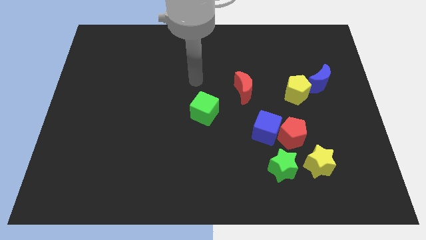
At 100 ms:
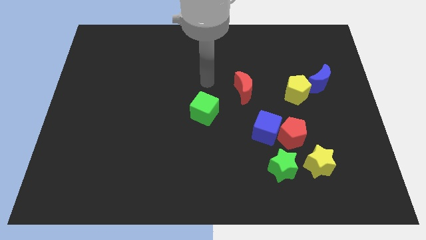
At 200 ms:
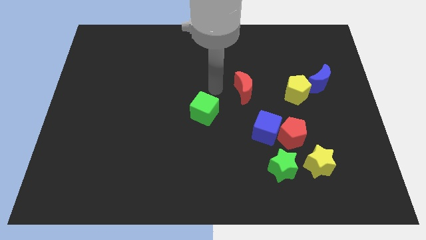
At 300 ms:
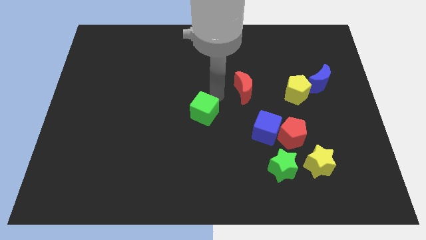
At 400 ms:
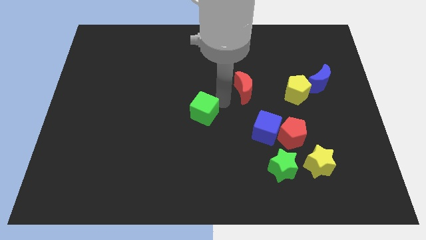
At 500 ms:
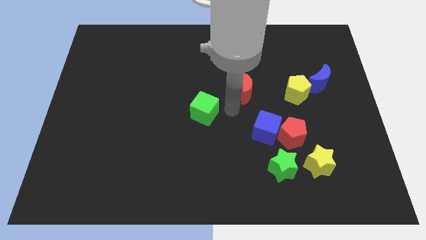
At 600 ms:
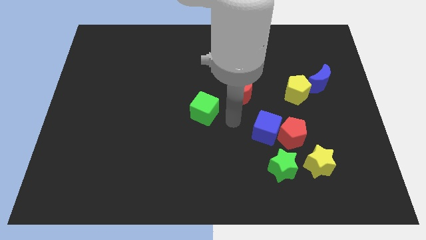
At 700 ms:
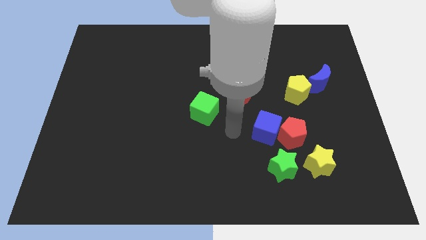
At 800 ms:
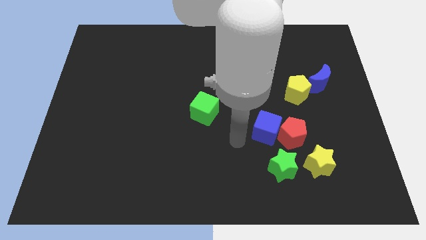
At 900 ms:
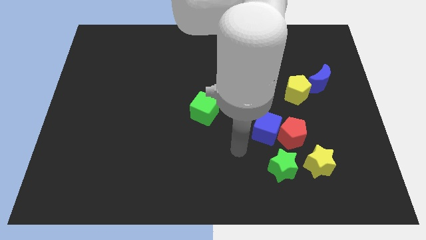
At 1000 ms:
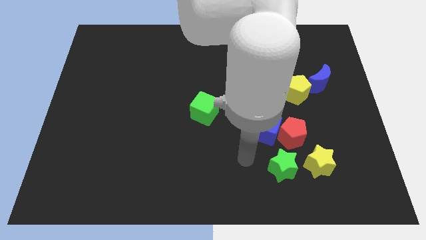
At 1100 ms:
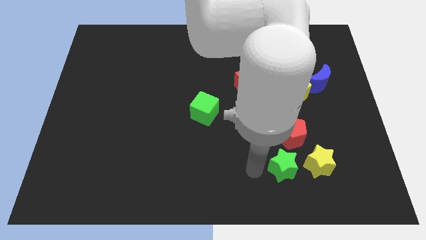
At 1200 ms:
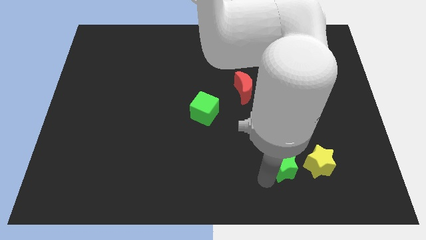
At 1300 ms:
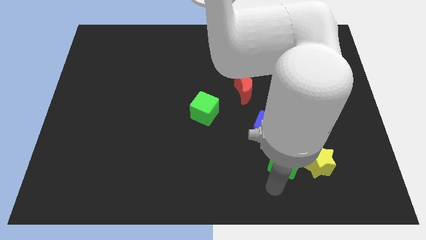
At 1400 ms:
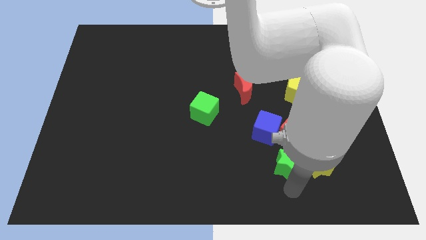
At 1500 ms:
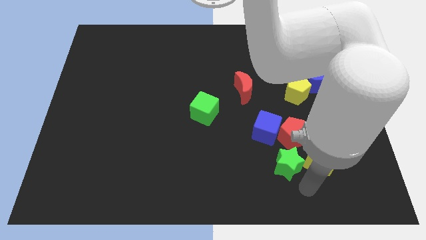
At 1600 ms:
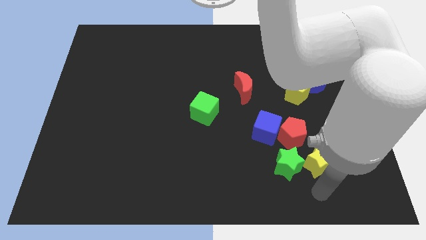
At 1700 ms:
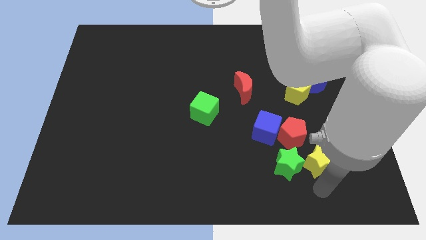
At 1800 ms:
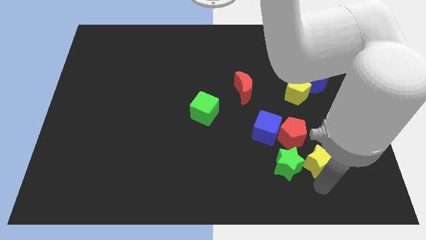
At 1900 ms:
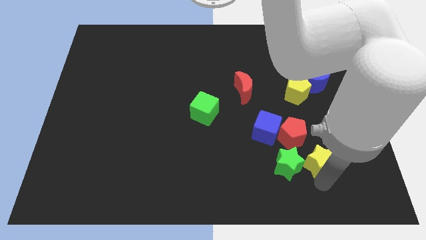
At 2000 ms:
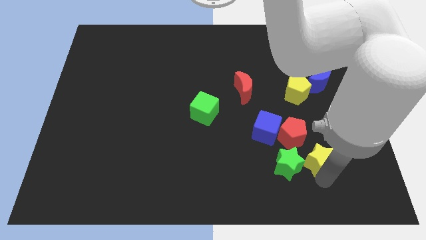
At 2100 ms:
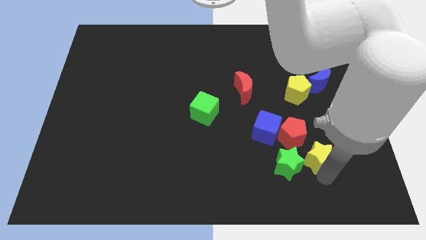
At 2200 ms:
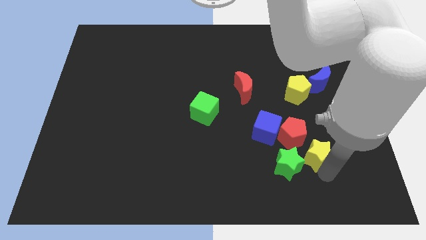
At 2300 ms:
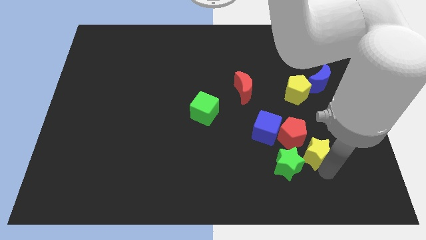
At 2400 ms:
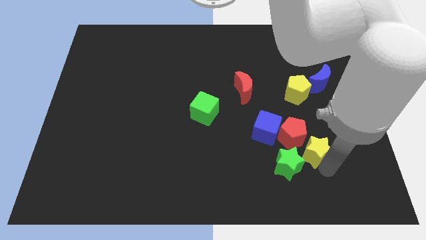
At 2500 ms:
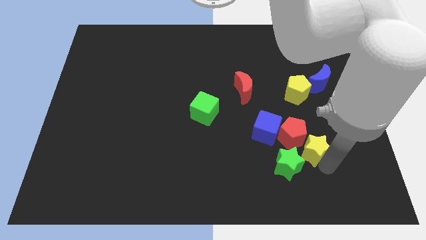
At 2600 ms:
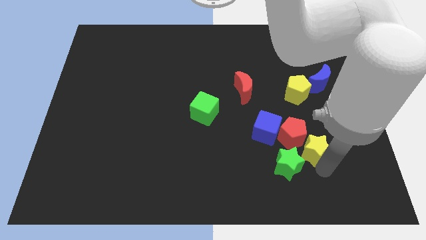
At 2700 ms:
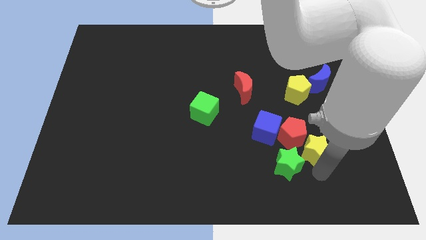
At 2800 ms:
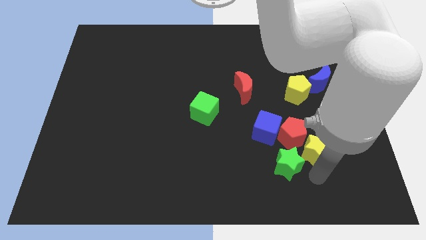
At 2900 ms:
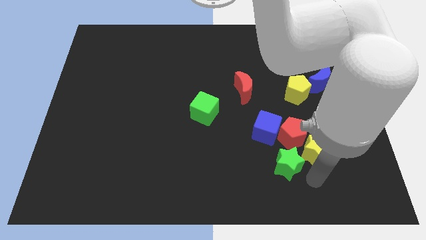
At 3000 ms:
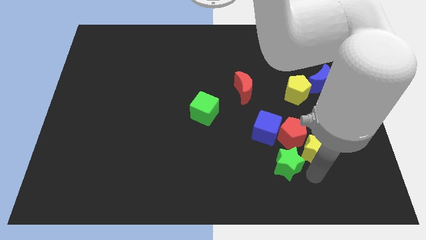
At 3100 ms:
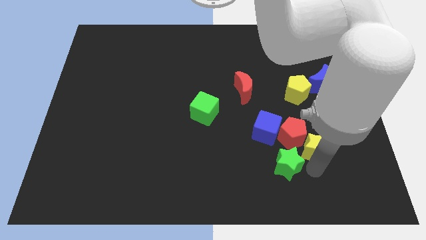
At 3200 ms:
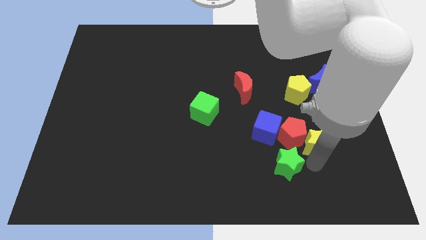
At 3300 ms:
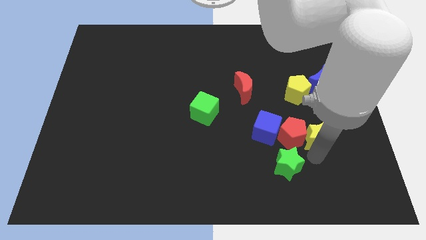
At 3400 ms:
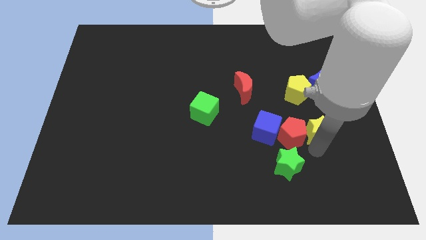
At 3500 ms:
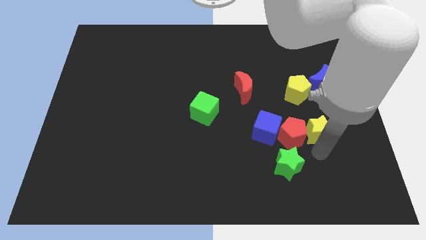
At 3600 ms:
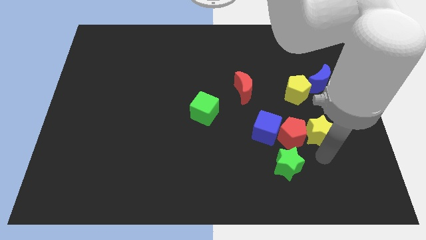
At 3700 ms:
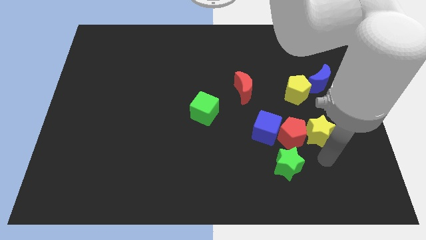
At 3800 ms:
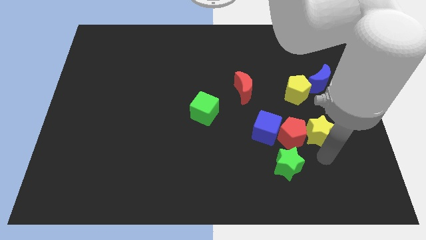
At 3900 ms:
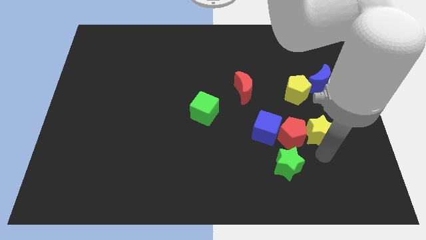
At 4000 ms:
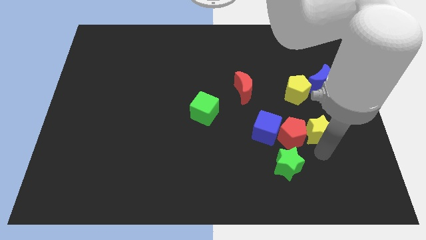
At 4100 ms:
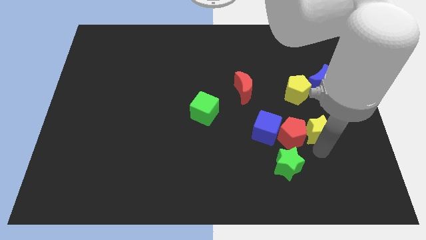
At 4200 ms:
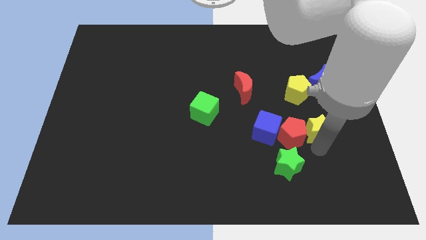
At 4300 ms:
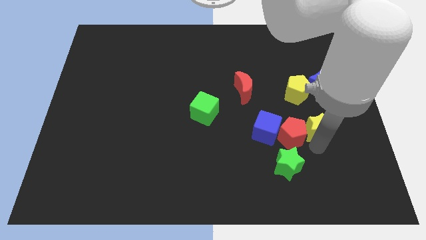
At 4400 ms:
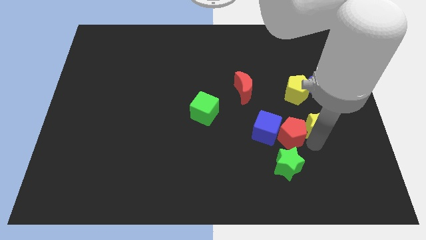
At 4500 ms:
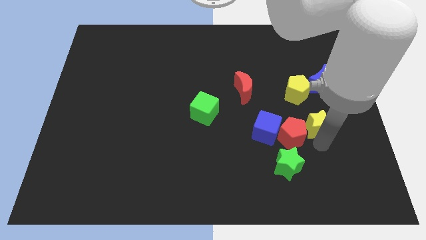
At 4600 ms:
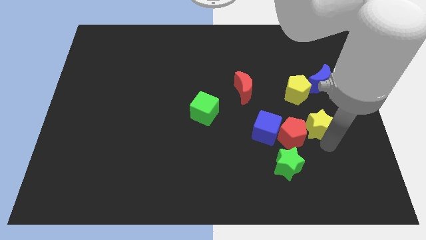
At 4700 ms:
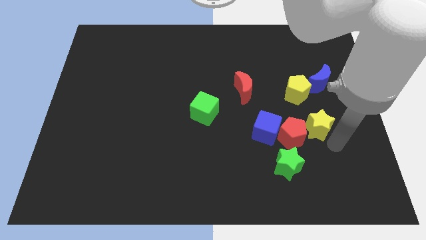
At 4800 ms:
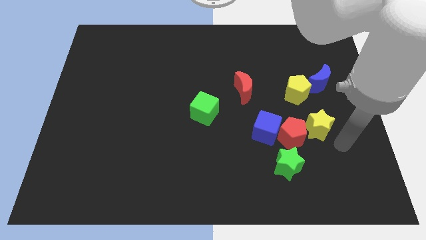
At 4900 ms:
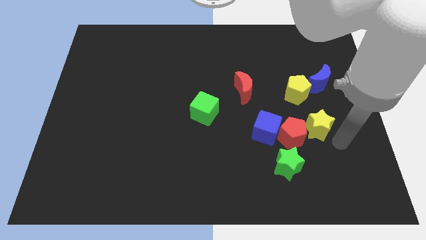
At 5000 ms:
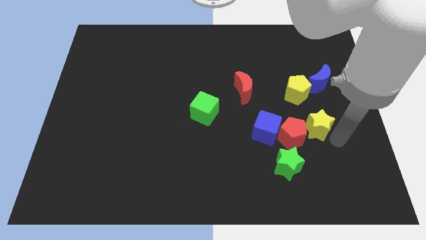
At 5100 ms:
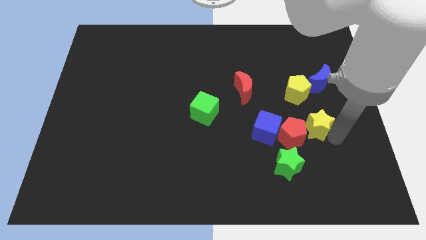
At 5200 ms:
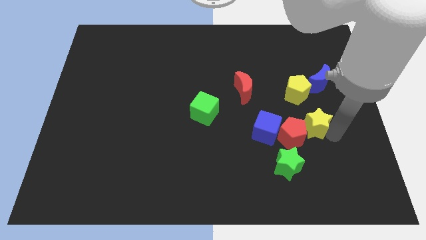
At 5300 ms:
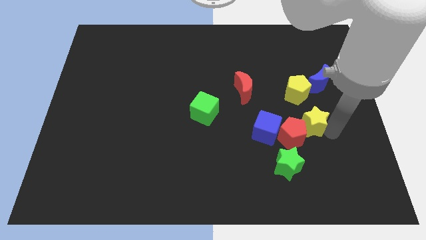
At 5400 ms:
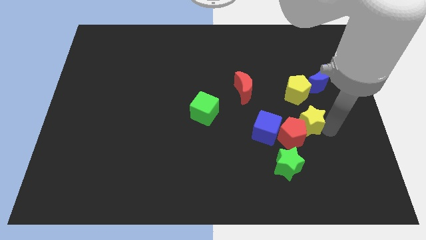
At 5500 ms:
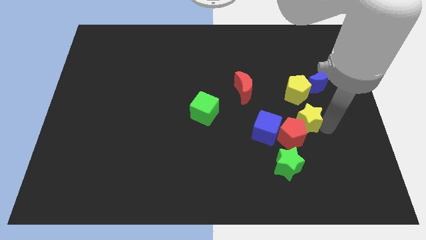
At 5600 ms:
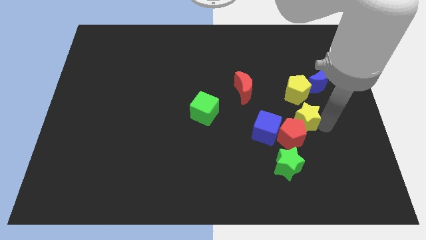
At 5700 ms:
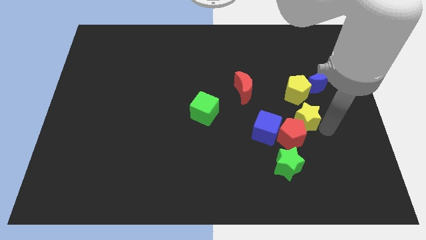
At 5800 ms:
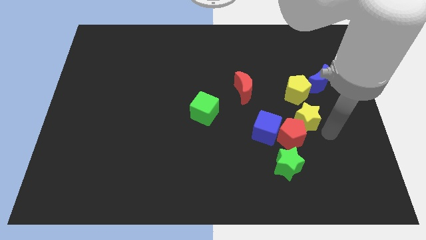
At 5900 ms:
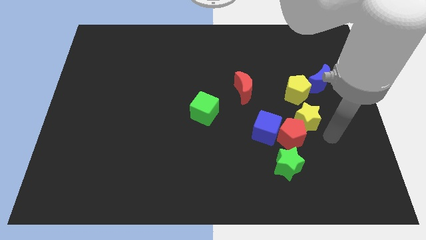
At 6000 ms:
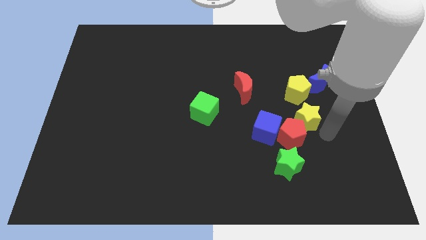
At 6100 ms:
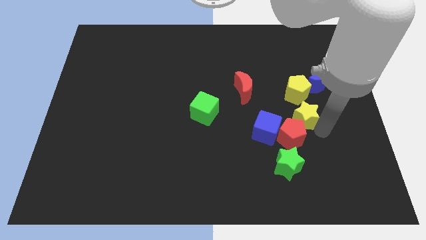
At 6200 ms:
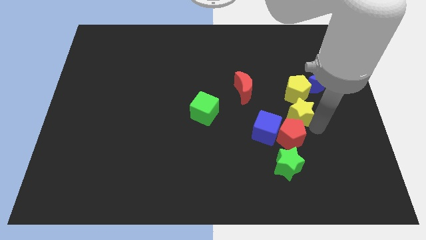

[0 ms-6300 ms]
move the yellow star a little bit up and then left

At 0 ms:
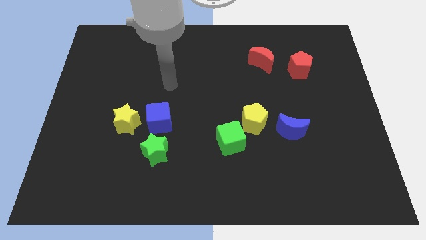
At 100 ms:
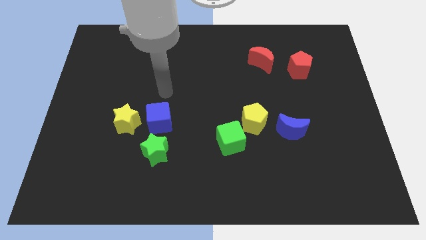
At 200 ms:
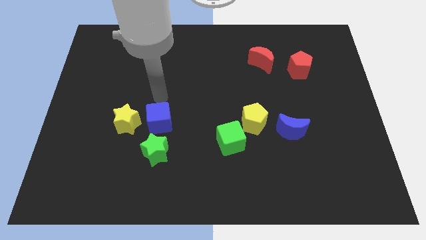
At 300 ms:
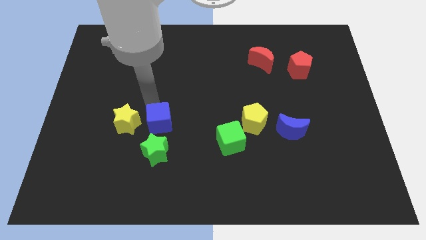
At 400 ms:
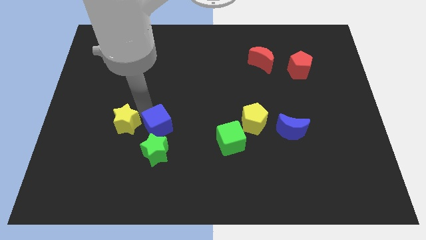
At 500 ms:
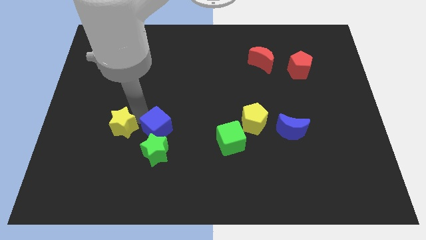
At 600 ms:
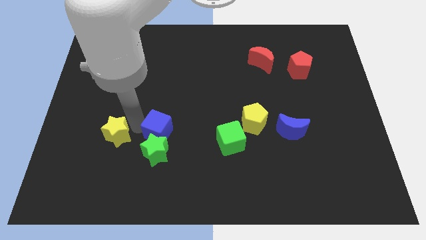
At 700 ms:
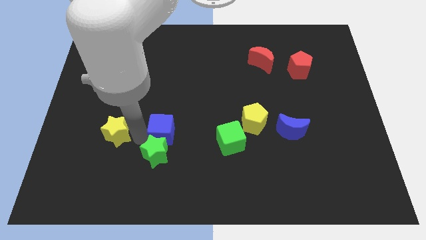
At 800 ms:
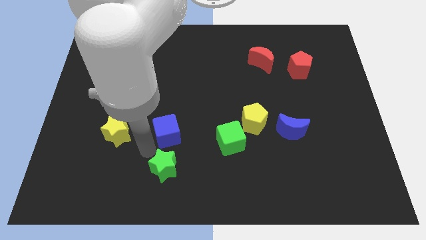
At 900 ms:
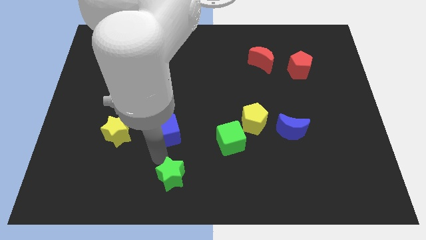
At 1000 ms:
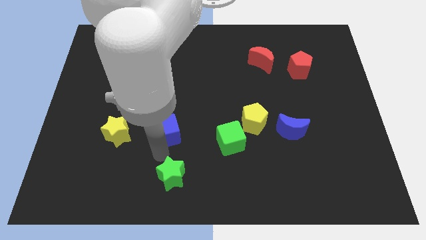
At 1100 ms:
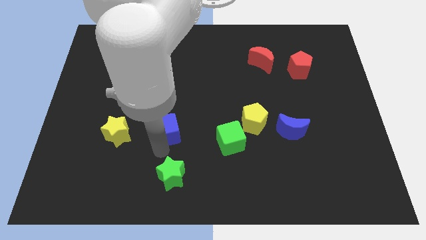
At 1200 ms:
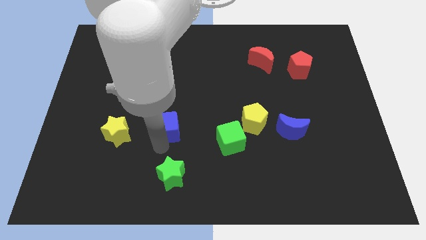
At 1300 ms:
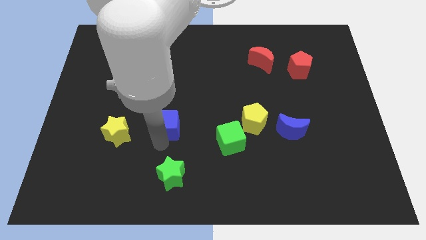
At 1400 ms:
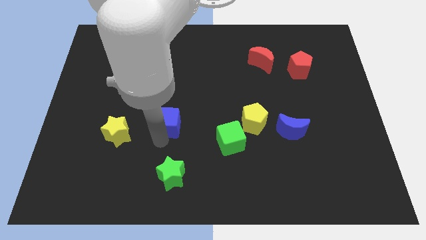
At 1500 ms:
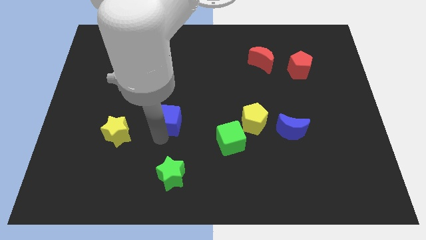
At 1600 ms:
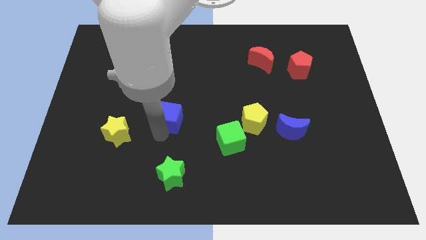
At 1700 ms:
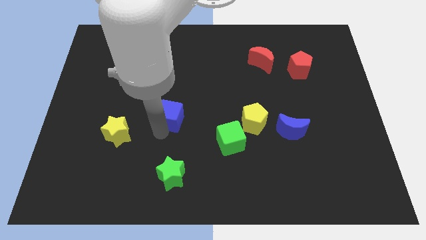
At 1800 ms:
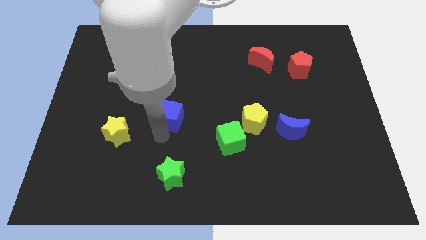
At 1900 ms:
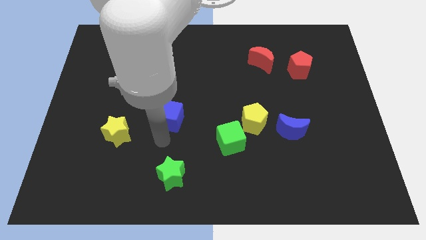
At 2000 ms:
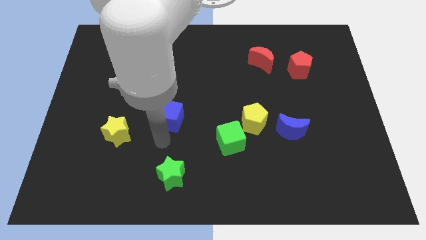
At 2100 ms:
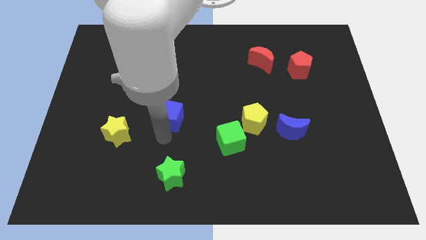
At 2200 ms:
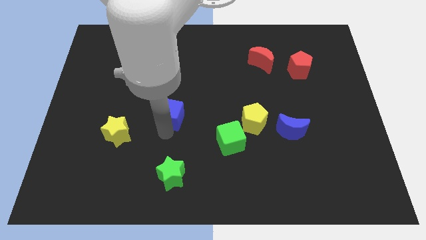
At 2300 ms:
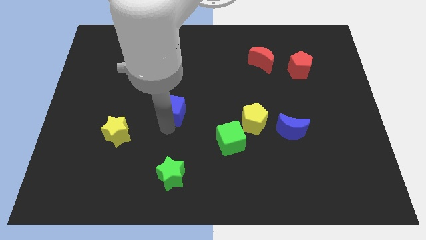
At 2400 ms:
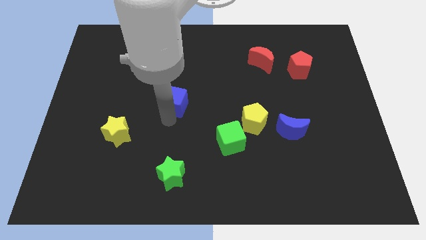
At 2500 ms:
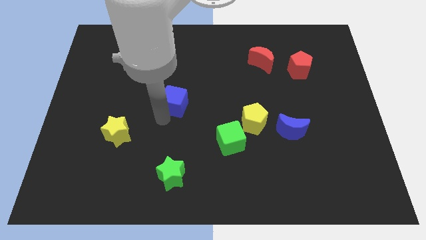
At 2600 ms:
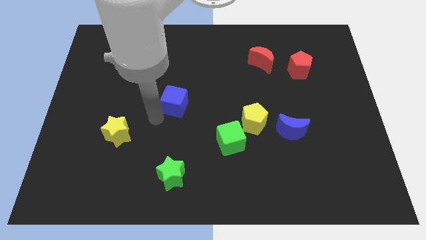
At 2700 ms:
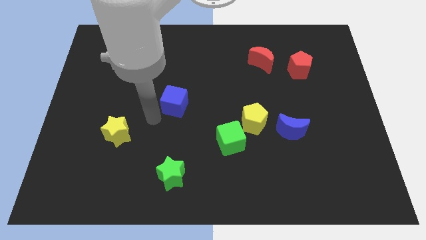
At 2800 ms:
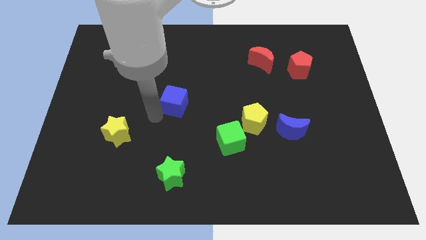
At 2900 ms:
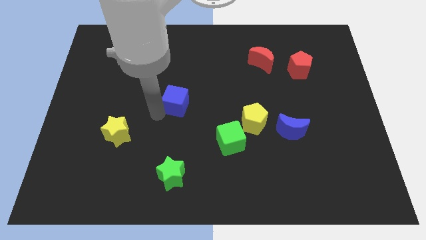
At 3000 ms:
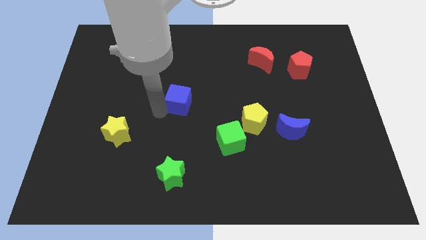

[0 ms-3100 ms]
push the blue cube up and to the right diagonally a little
